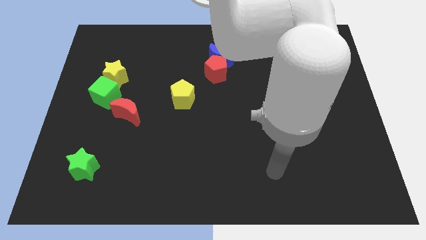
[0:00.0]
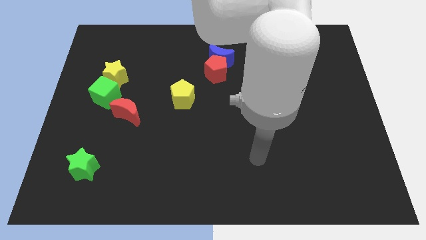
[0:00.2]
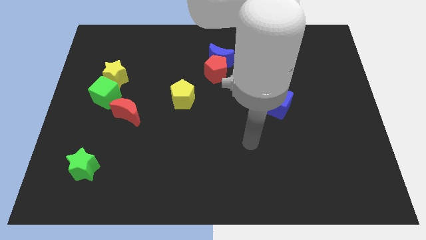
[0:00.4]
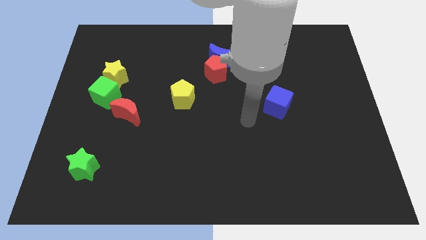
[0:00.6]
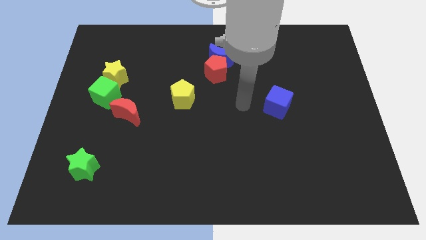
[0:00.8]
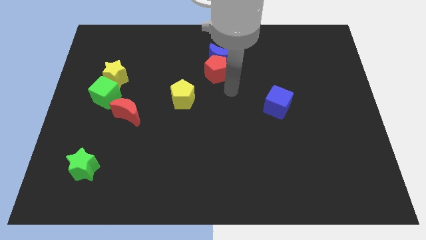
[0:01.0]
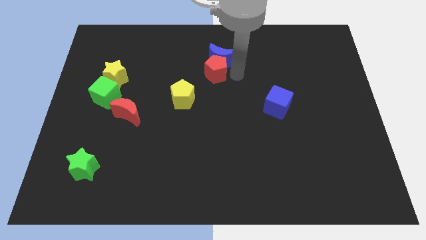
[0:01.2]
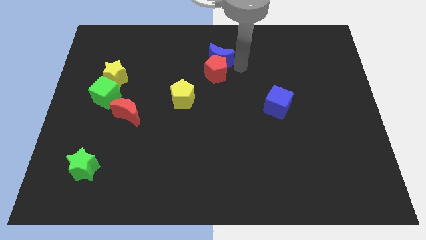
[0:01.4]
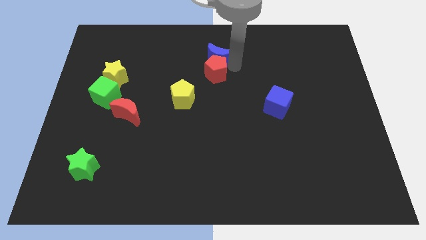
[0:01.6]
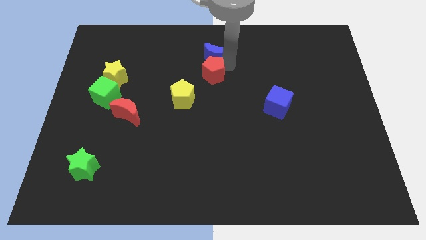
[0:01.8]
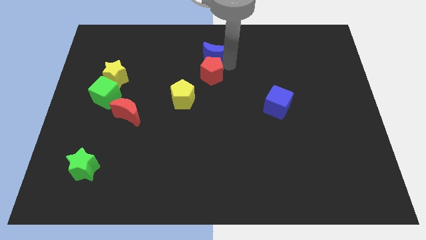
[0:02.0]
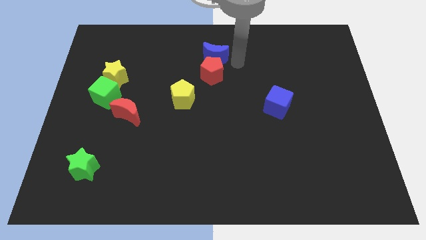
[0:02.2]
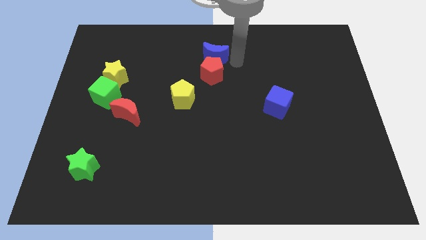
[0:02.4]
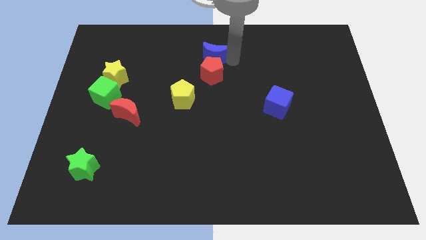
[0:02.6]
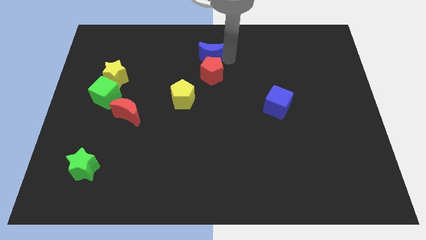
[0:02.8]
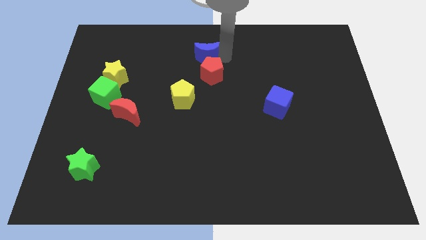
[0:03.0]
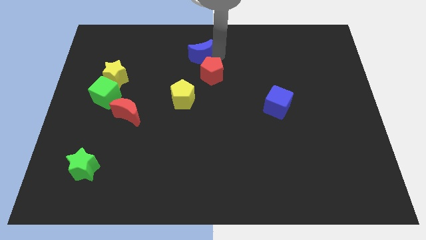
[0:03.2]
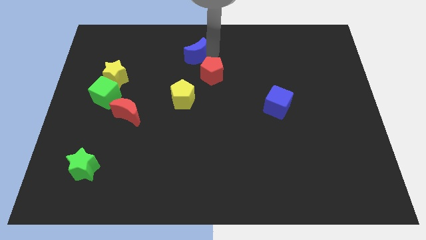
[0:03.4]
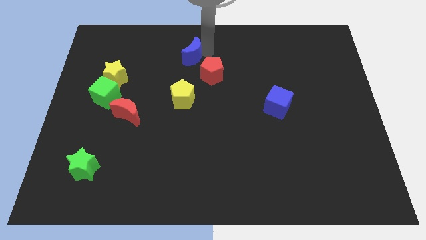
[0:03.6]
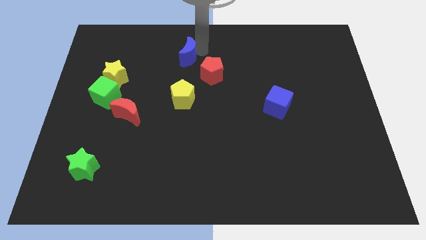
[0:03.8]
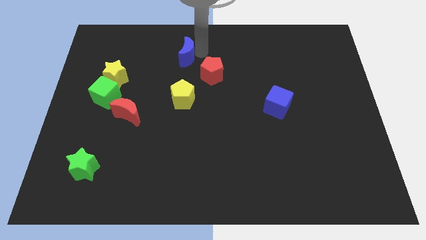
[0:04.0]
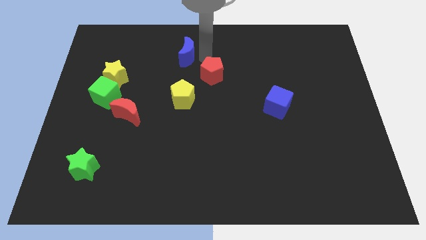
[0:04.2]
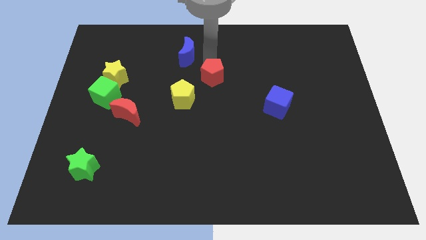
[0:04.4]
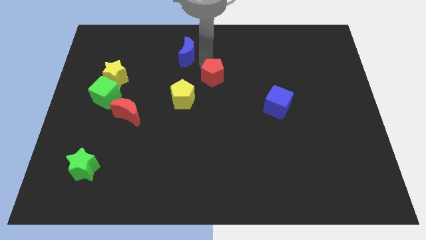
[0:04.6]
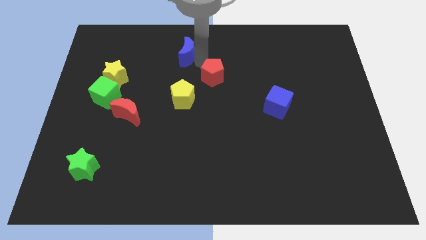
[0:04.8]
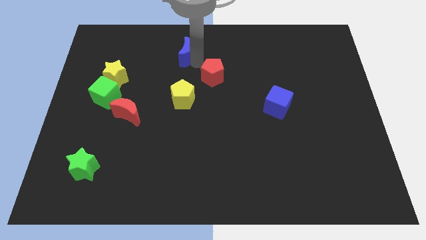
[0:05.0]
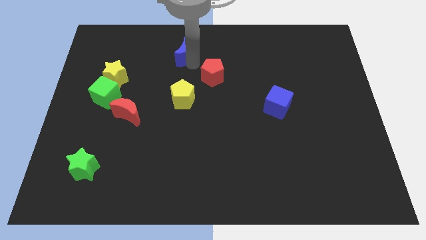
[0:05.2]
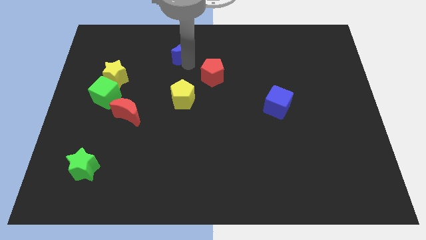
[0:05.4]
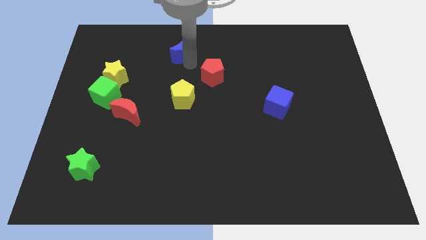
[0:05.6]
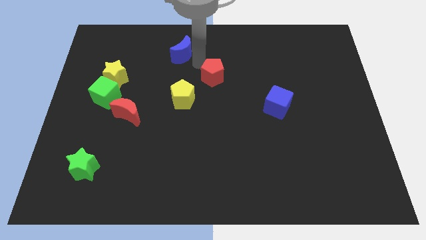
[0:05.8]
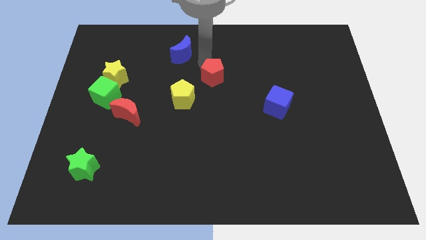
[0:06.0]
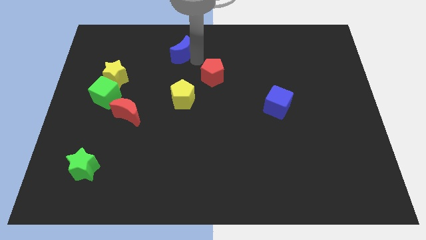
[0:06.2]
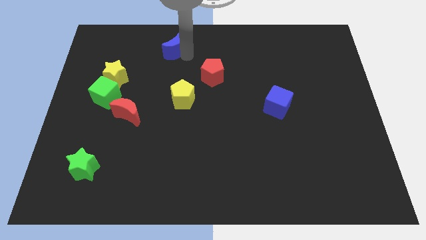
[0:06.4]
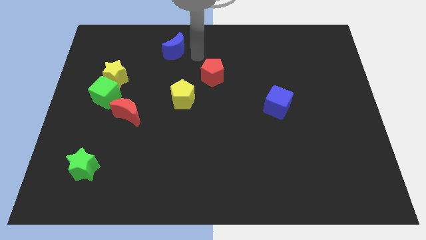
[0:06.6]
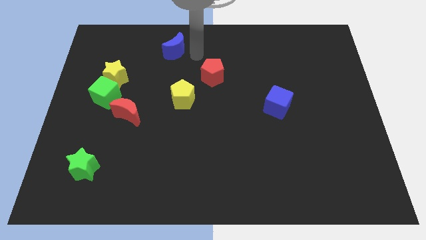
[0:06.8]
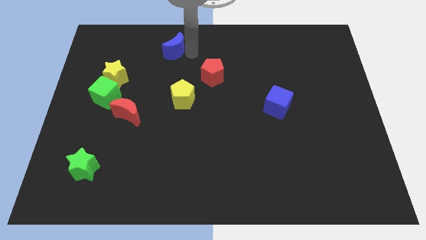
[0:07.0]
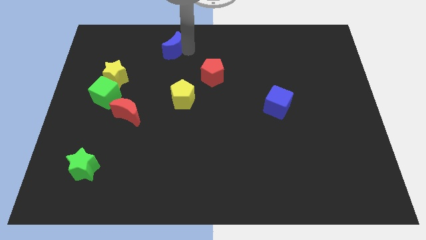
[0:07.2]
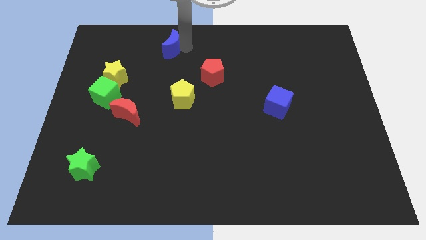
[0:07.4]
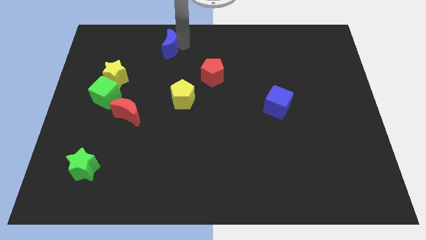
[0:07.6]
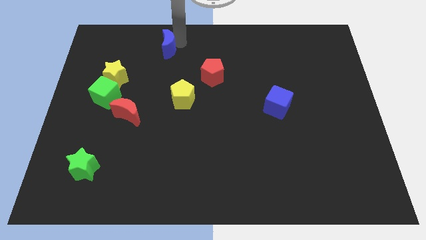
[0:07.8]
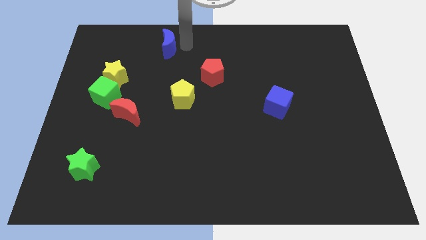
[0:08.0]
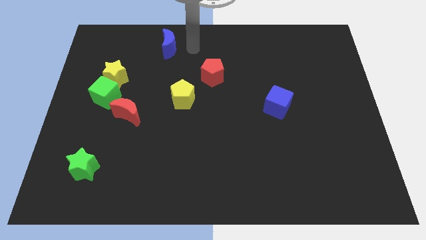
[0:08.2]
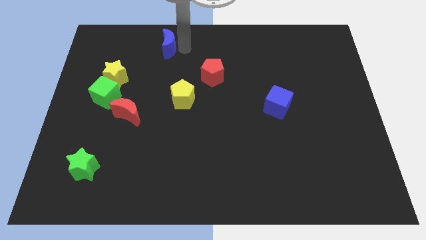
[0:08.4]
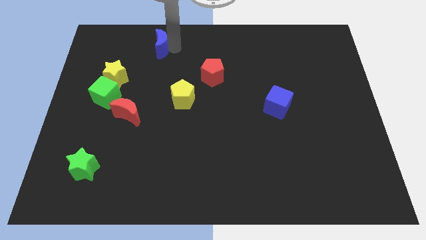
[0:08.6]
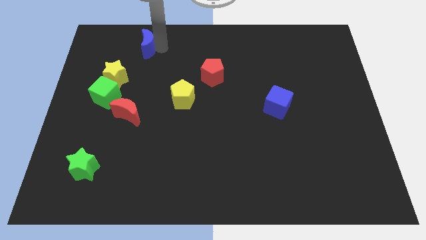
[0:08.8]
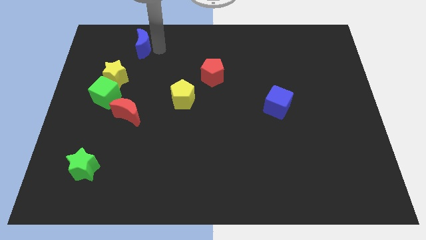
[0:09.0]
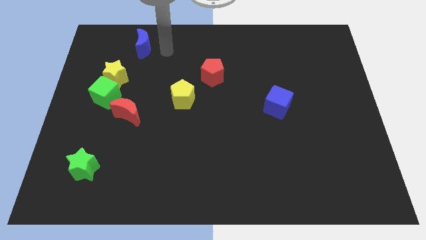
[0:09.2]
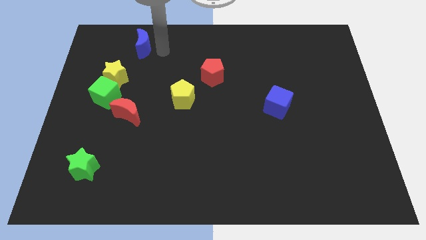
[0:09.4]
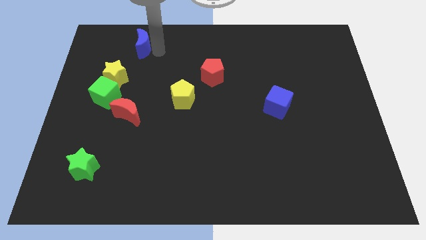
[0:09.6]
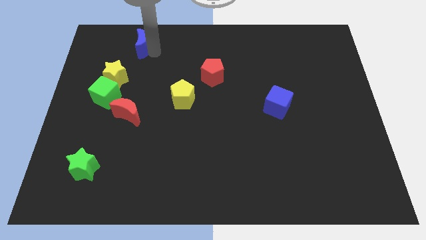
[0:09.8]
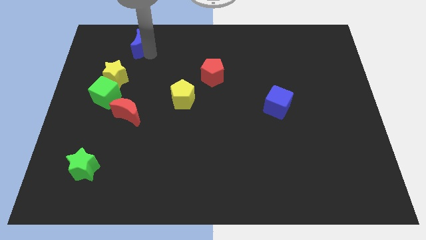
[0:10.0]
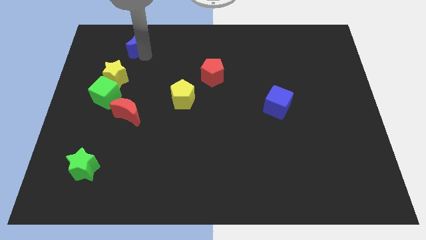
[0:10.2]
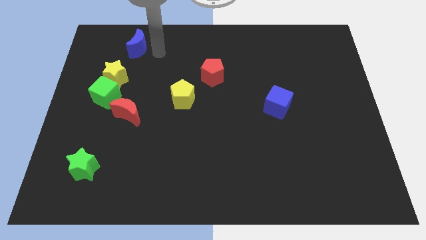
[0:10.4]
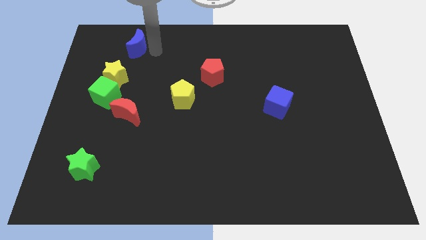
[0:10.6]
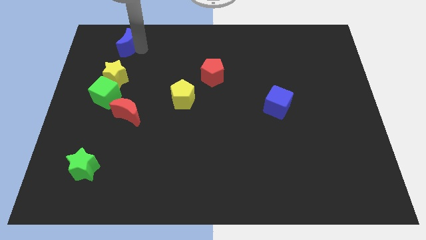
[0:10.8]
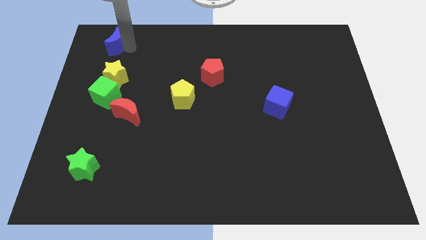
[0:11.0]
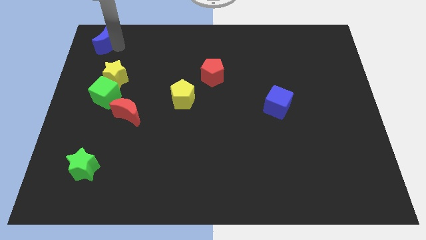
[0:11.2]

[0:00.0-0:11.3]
move the blue moon to the upper left corner

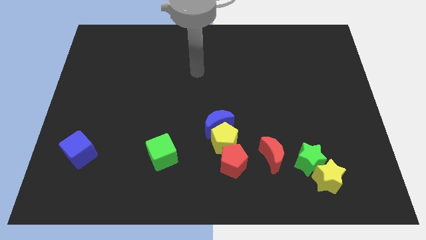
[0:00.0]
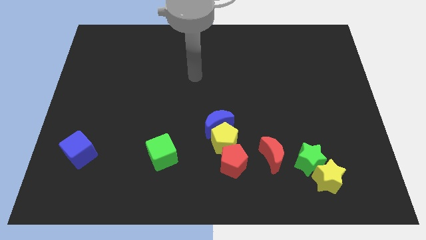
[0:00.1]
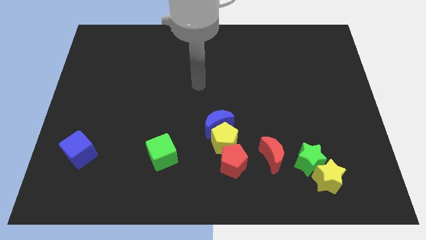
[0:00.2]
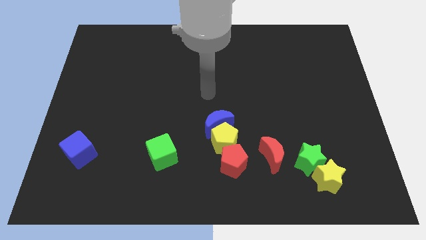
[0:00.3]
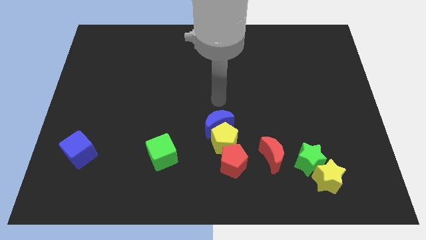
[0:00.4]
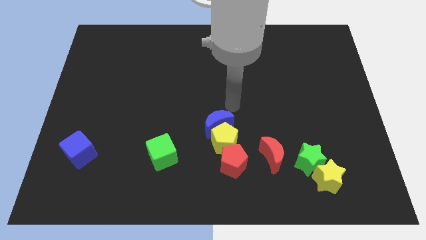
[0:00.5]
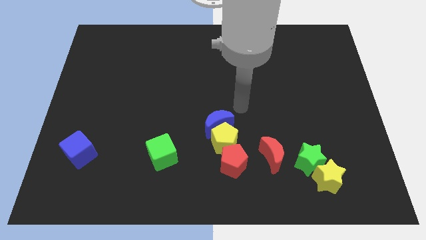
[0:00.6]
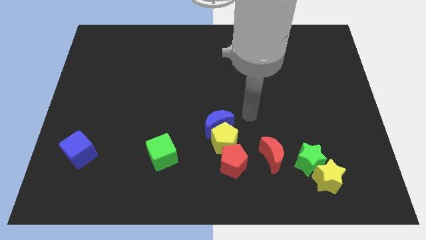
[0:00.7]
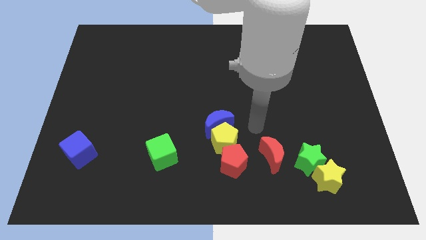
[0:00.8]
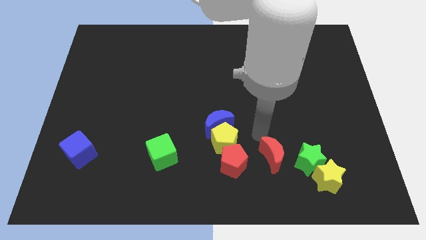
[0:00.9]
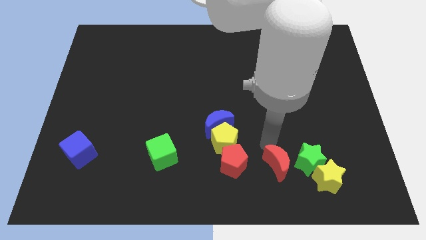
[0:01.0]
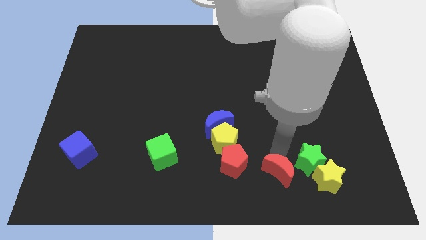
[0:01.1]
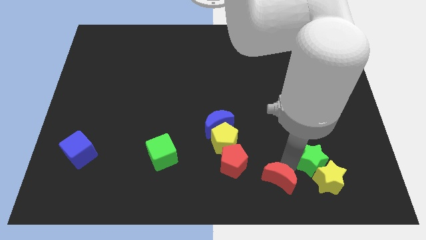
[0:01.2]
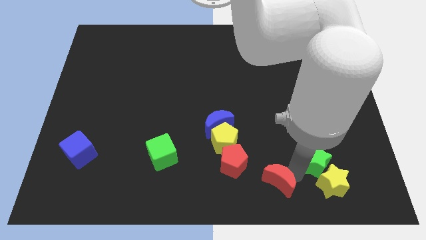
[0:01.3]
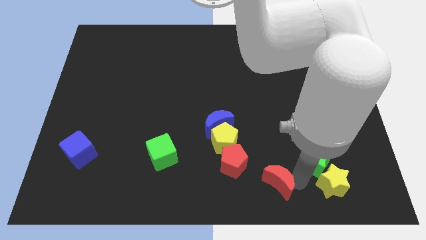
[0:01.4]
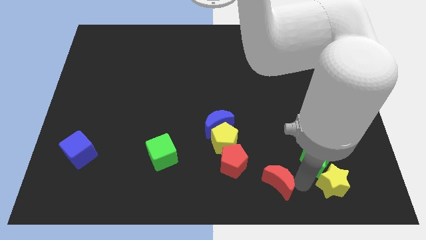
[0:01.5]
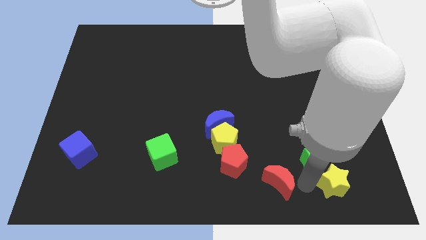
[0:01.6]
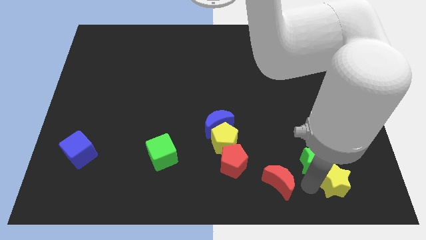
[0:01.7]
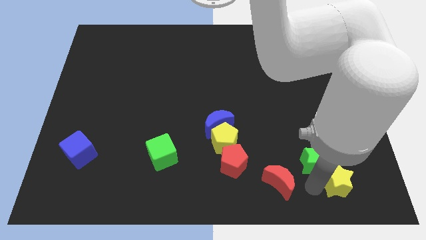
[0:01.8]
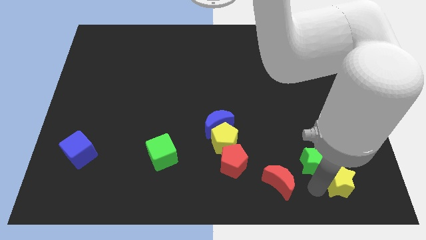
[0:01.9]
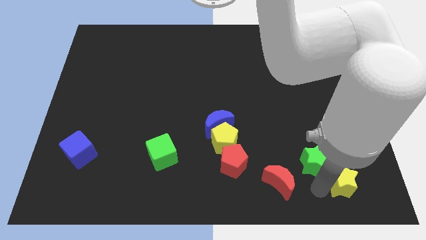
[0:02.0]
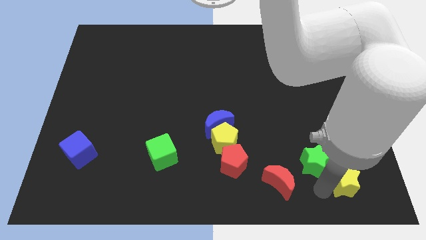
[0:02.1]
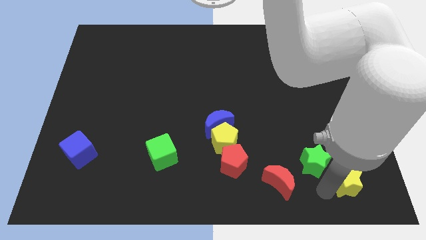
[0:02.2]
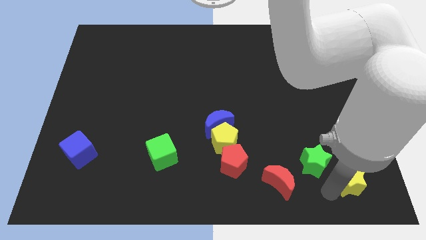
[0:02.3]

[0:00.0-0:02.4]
push the yellow star to the bottom right
